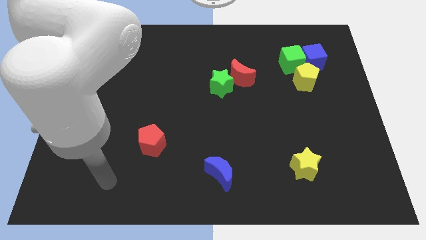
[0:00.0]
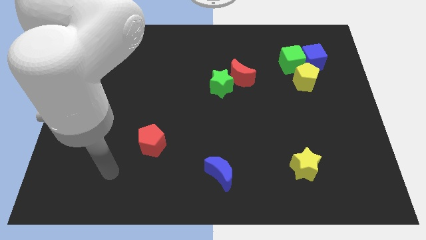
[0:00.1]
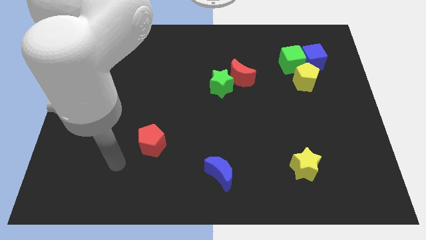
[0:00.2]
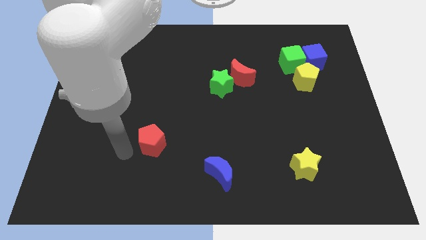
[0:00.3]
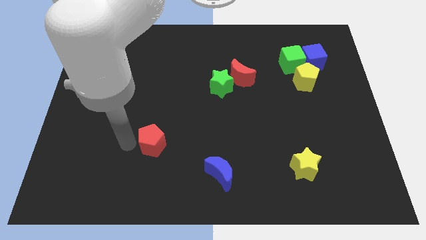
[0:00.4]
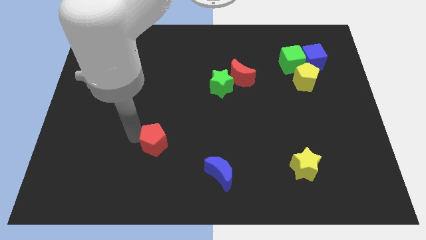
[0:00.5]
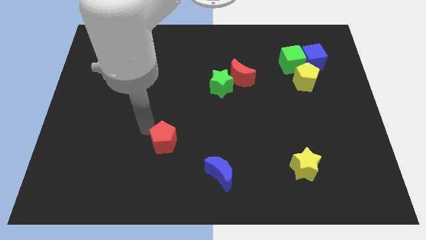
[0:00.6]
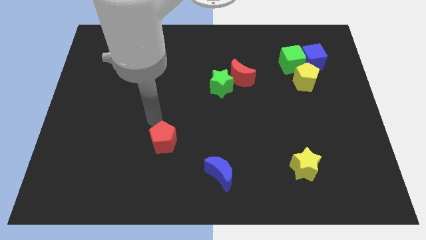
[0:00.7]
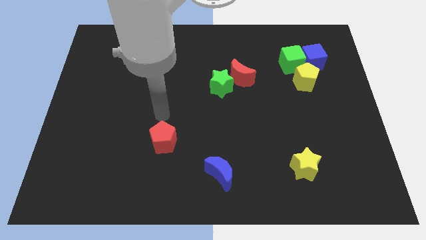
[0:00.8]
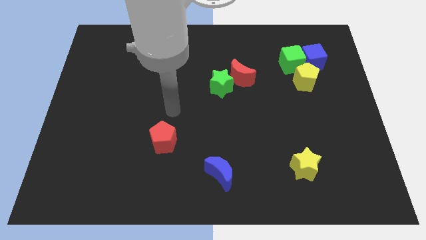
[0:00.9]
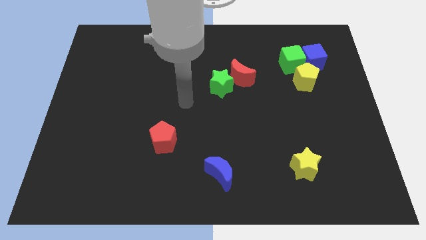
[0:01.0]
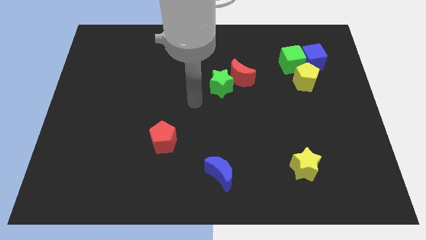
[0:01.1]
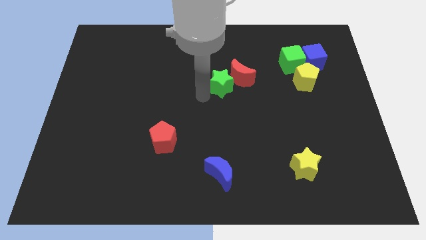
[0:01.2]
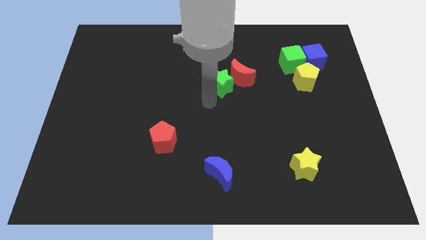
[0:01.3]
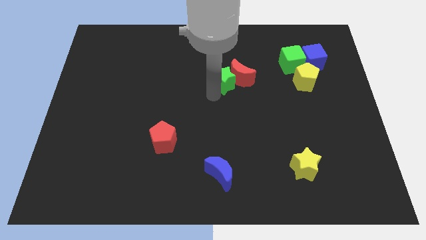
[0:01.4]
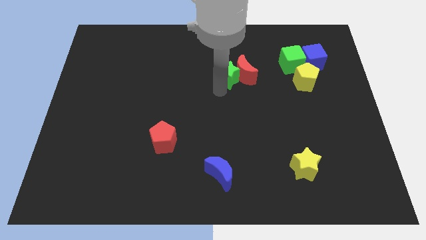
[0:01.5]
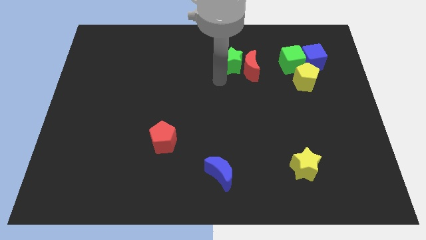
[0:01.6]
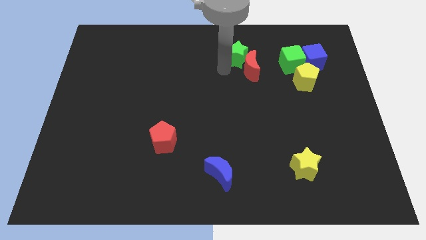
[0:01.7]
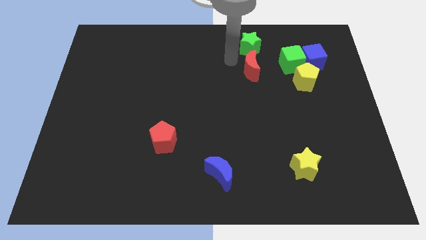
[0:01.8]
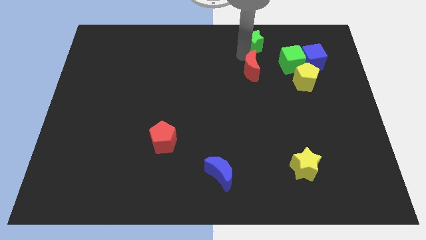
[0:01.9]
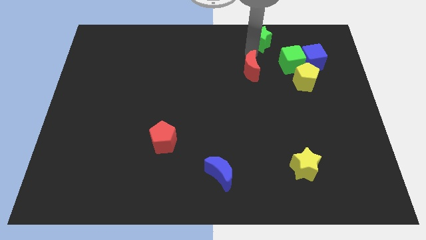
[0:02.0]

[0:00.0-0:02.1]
separate the red moon from the green star

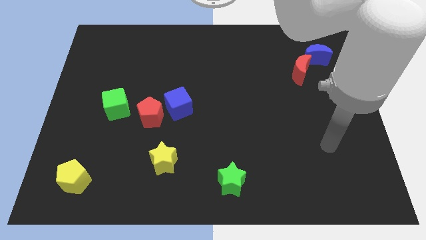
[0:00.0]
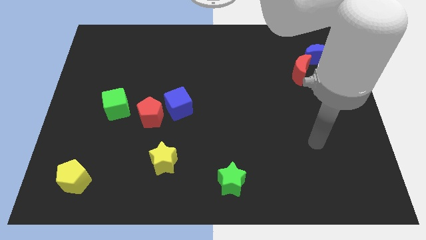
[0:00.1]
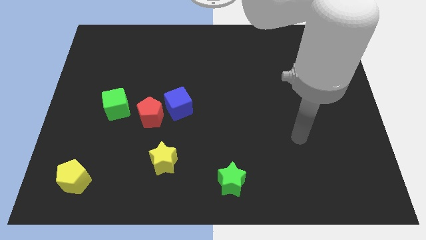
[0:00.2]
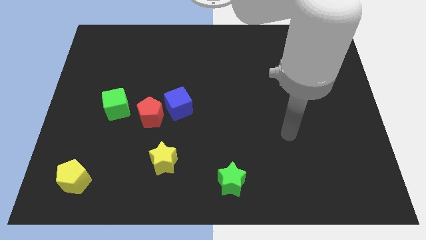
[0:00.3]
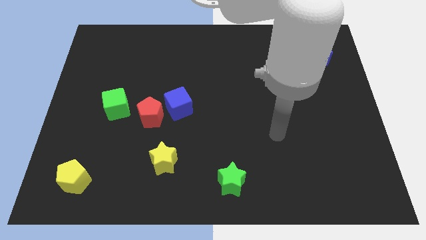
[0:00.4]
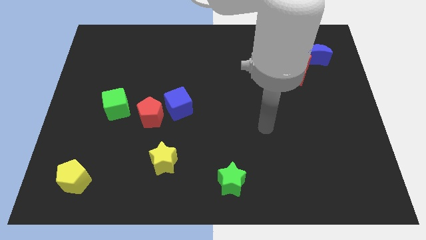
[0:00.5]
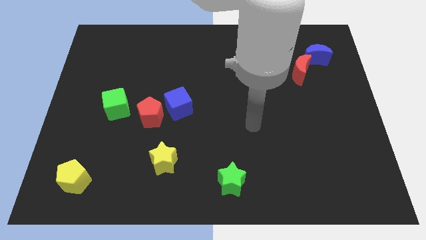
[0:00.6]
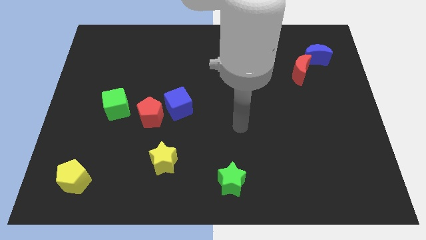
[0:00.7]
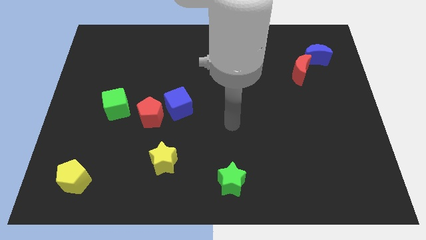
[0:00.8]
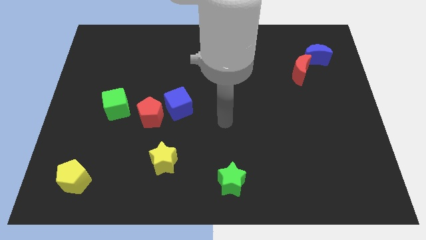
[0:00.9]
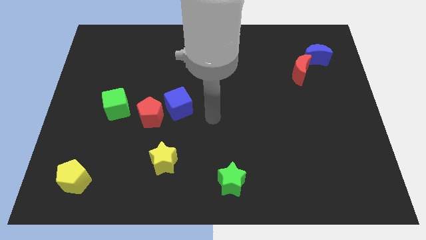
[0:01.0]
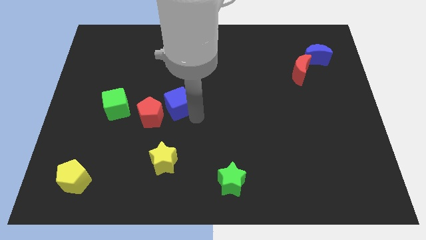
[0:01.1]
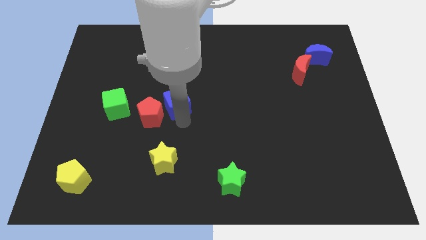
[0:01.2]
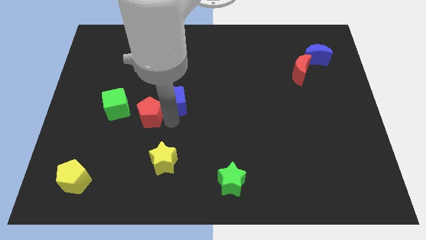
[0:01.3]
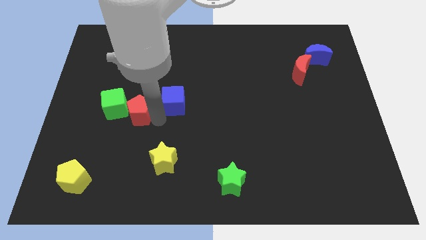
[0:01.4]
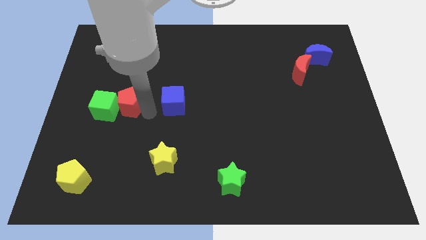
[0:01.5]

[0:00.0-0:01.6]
move the blue cube away from the red pentagon

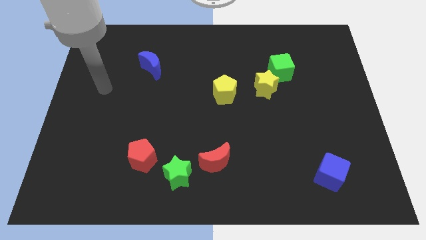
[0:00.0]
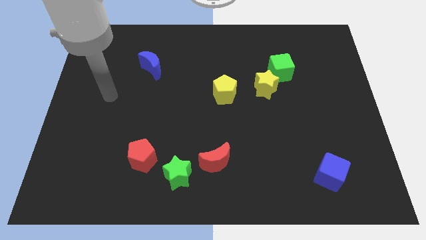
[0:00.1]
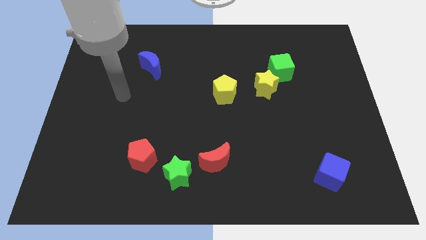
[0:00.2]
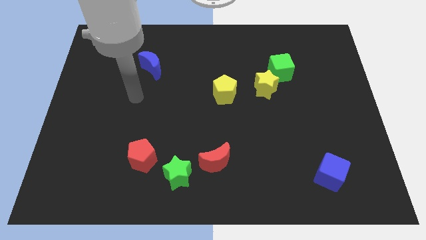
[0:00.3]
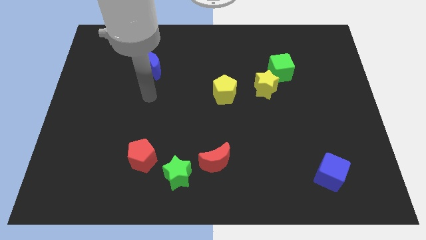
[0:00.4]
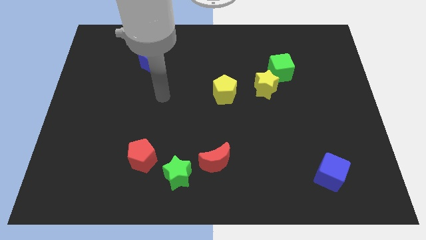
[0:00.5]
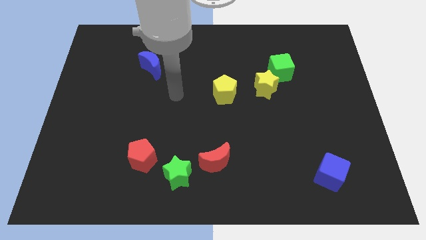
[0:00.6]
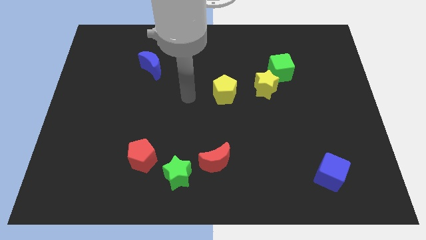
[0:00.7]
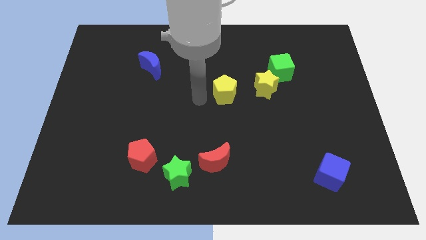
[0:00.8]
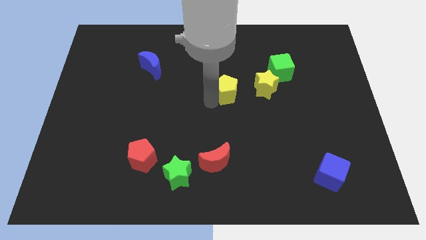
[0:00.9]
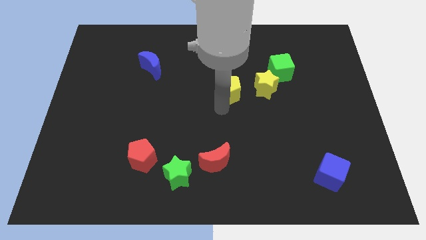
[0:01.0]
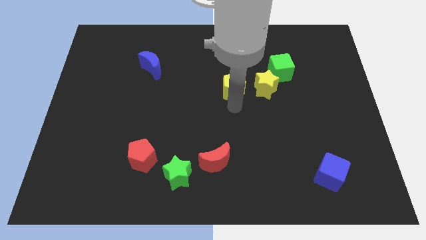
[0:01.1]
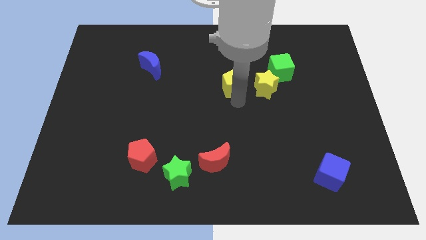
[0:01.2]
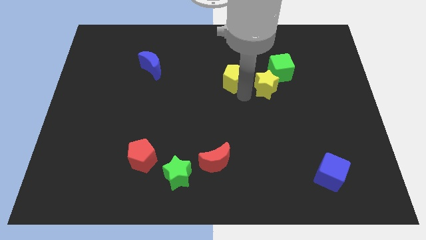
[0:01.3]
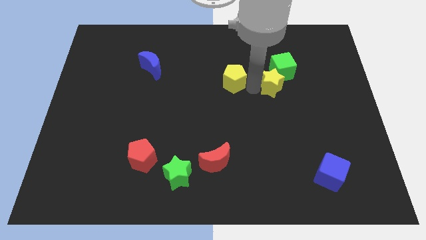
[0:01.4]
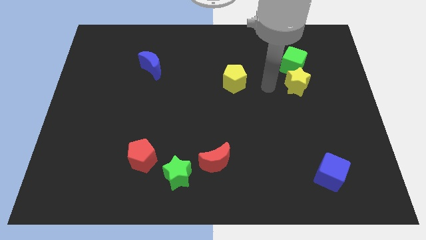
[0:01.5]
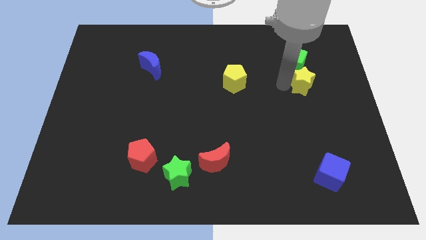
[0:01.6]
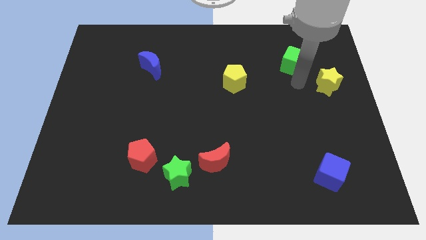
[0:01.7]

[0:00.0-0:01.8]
separate the green cube from the yellow star

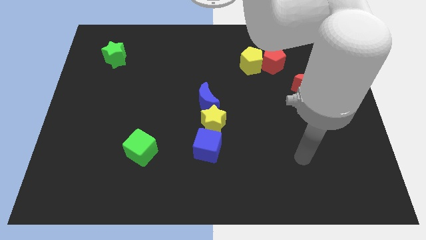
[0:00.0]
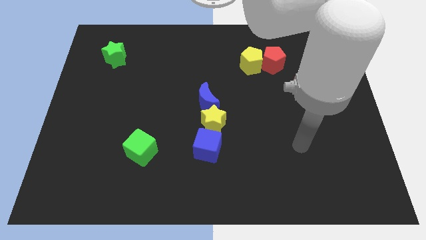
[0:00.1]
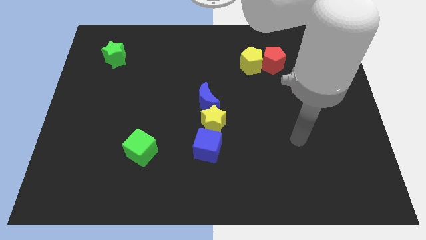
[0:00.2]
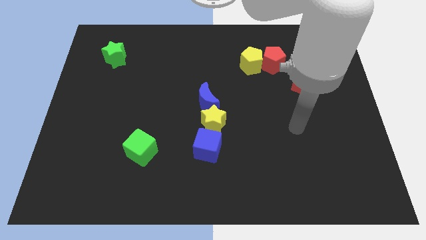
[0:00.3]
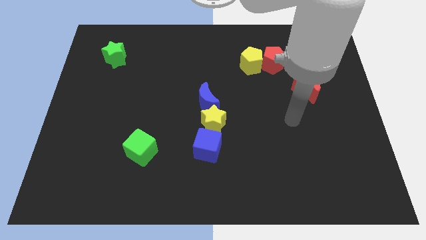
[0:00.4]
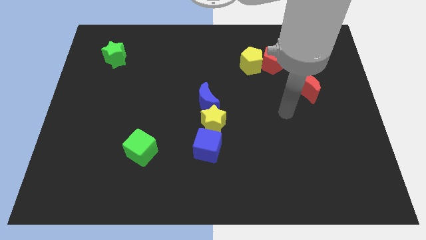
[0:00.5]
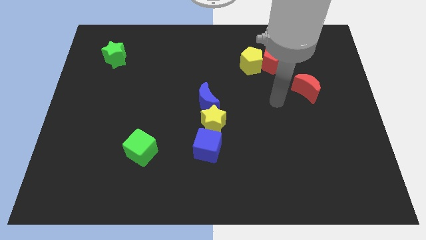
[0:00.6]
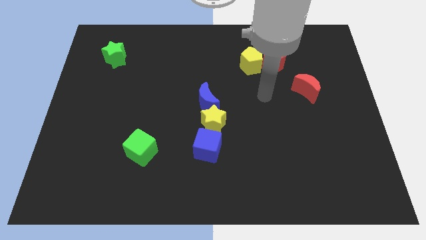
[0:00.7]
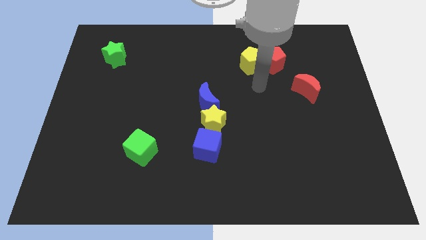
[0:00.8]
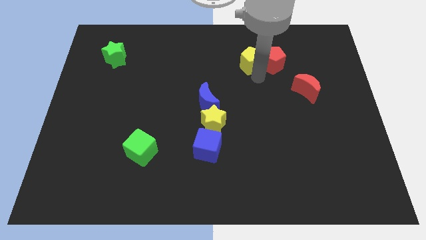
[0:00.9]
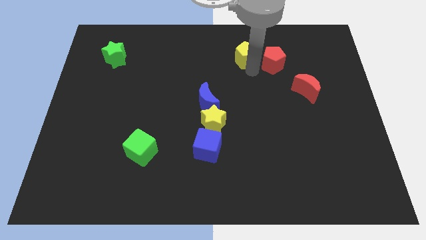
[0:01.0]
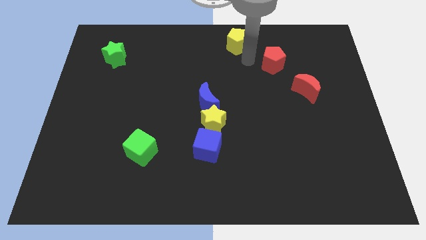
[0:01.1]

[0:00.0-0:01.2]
separate the red pentagon from the yellow pentagon

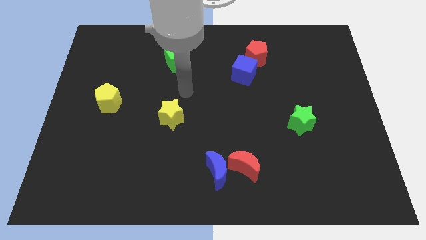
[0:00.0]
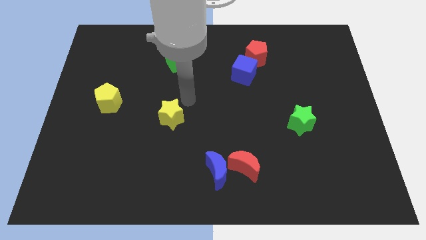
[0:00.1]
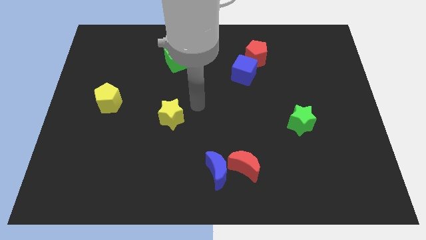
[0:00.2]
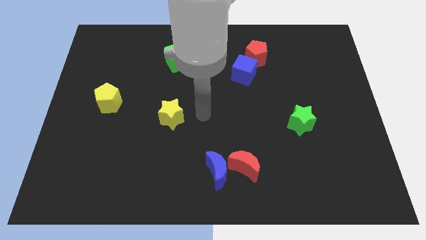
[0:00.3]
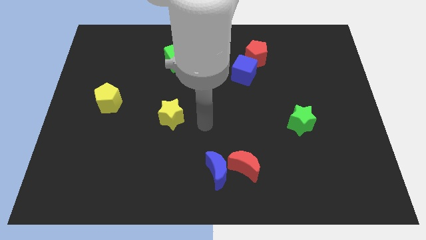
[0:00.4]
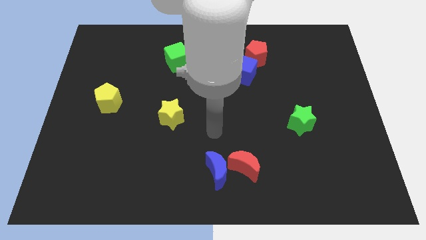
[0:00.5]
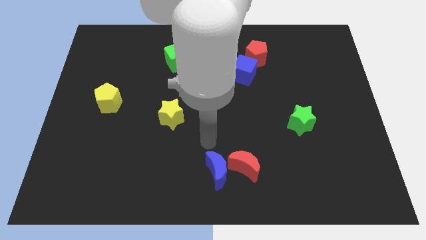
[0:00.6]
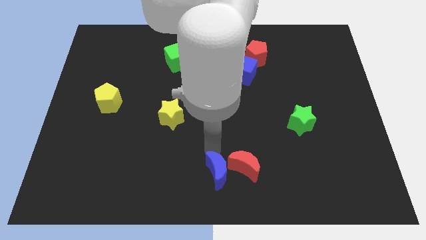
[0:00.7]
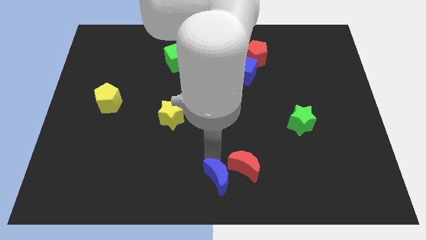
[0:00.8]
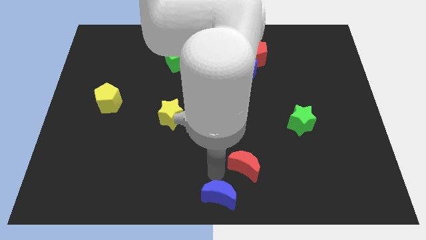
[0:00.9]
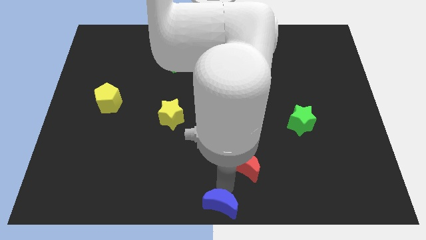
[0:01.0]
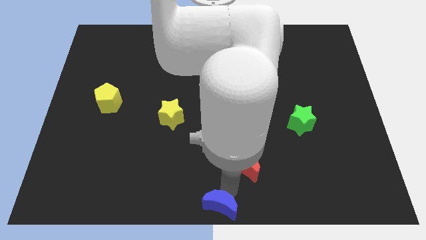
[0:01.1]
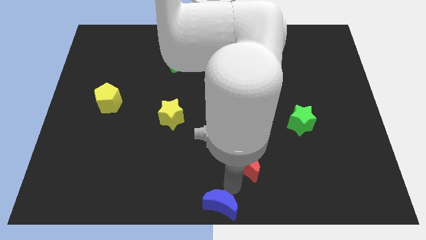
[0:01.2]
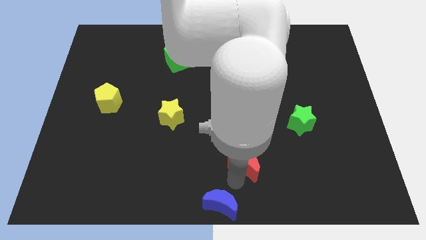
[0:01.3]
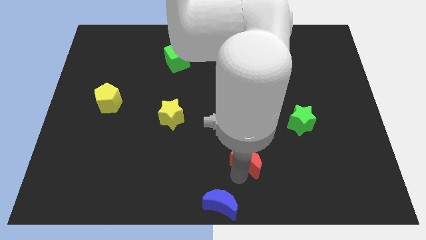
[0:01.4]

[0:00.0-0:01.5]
move the red moon away from the blue moon

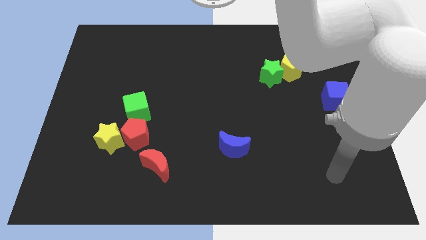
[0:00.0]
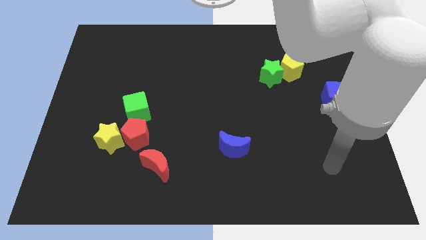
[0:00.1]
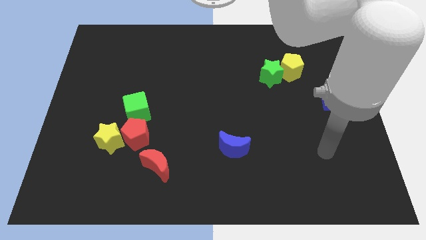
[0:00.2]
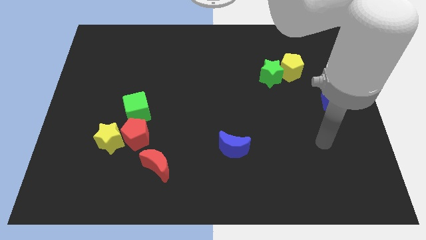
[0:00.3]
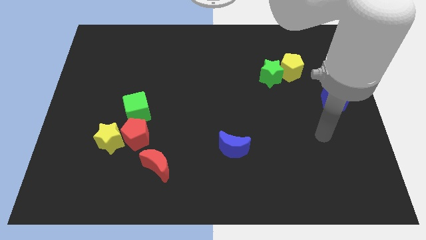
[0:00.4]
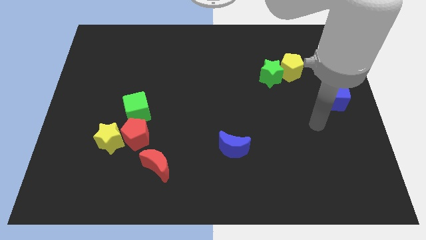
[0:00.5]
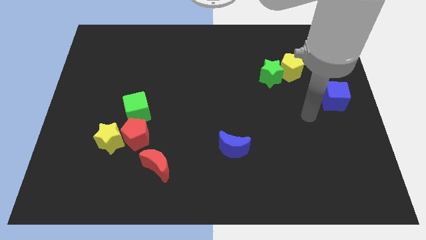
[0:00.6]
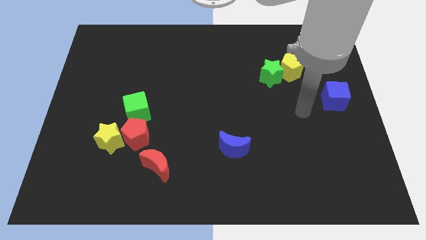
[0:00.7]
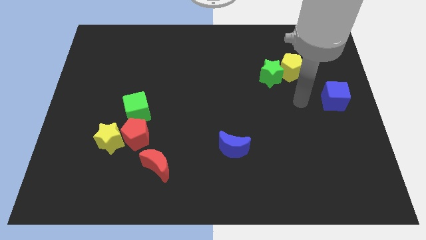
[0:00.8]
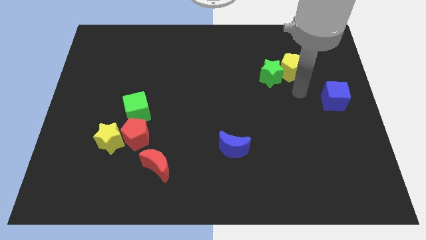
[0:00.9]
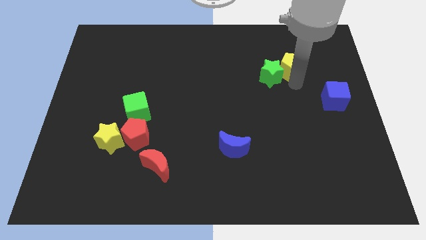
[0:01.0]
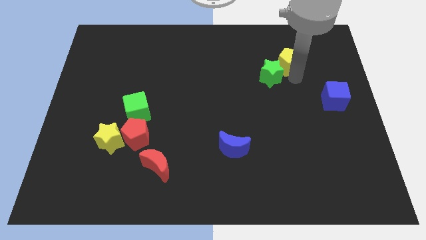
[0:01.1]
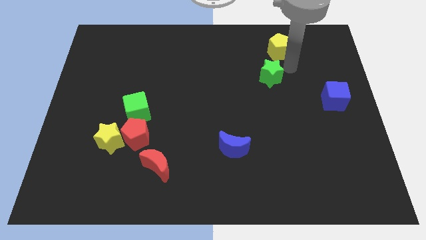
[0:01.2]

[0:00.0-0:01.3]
separate the green star from the yellow pentagon
